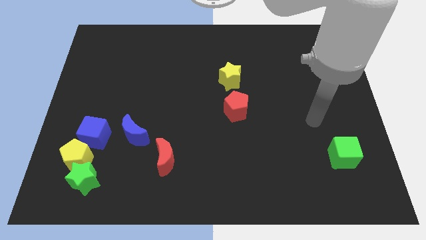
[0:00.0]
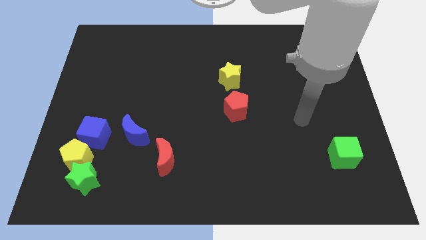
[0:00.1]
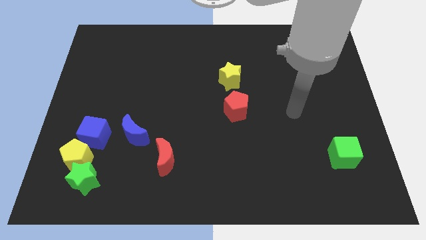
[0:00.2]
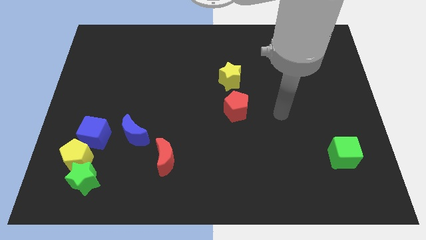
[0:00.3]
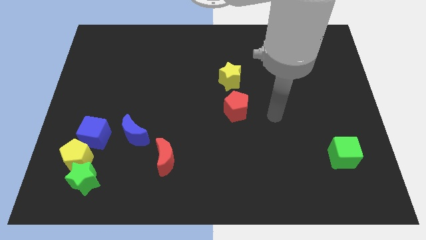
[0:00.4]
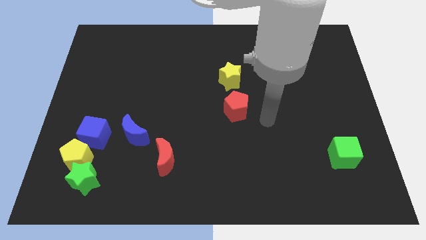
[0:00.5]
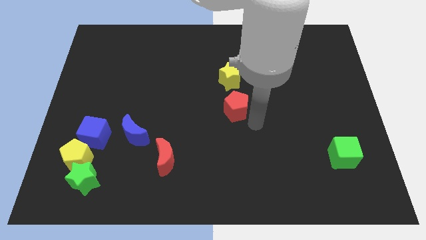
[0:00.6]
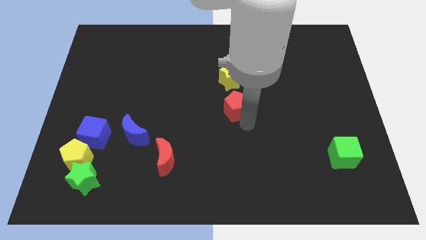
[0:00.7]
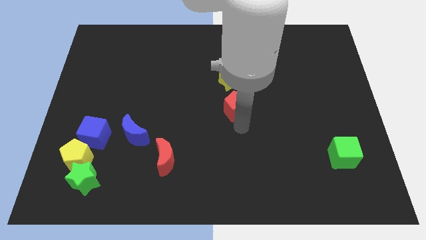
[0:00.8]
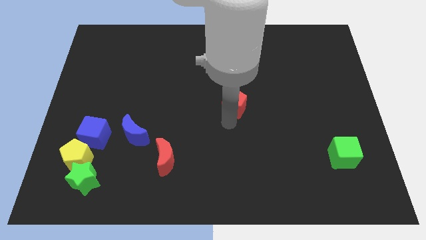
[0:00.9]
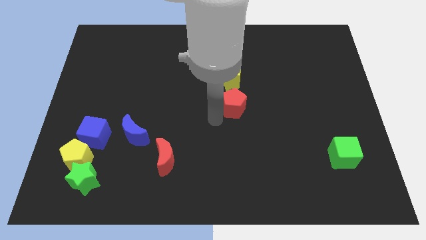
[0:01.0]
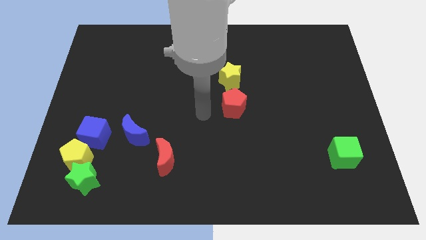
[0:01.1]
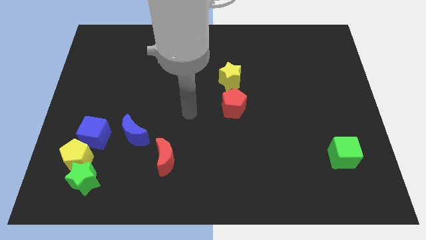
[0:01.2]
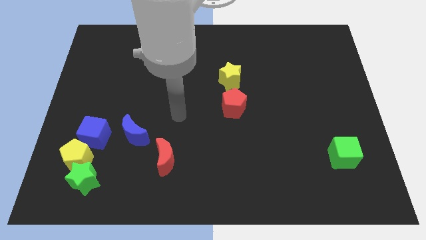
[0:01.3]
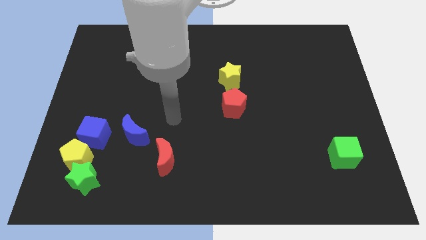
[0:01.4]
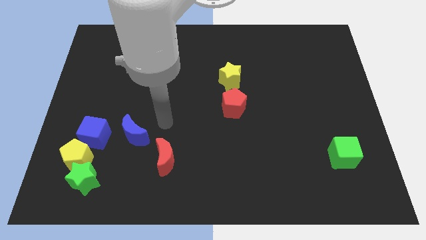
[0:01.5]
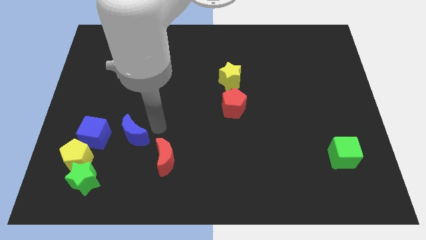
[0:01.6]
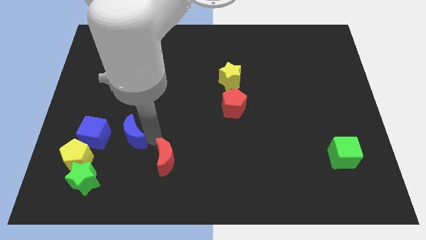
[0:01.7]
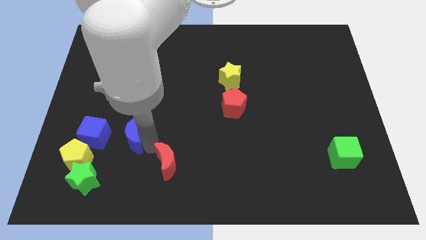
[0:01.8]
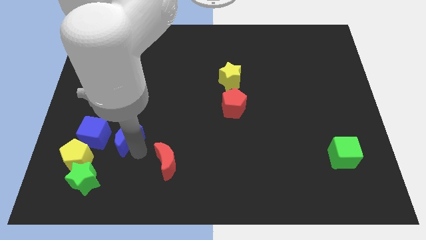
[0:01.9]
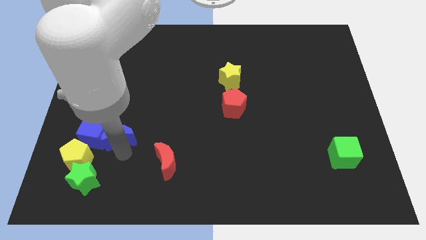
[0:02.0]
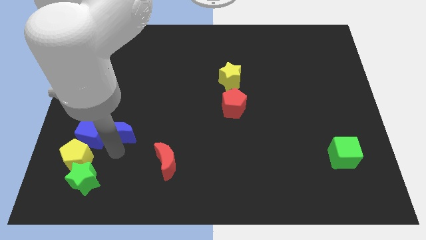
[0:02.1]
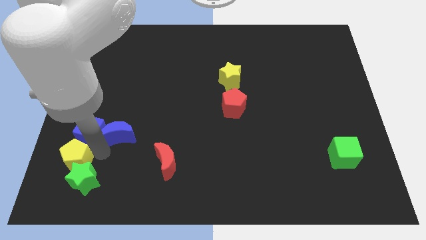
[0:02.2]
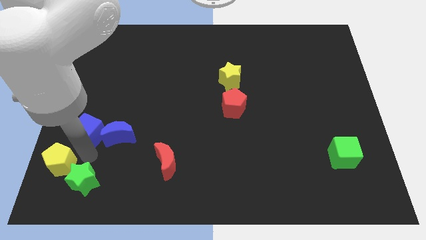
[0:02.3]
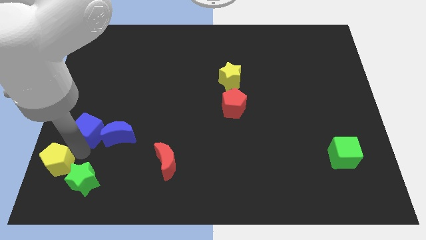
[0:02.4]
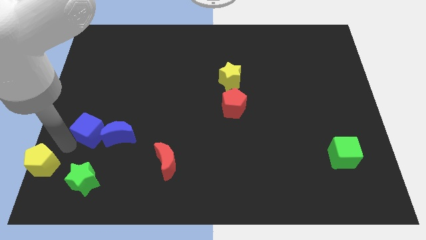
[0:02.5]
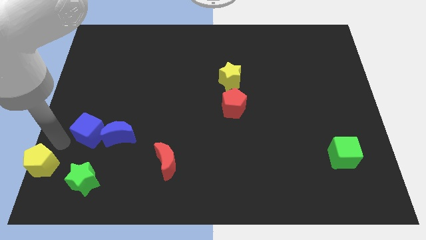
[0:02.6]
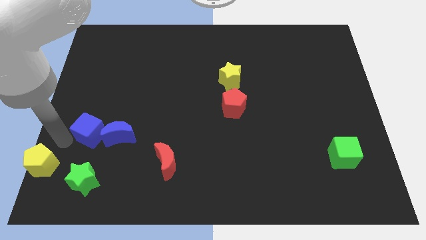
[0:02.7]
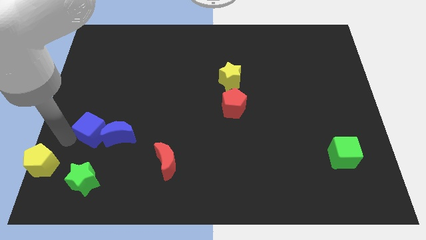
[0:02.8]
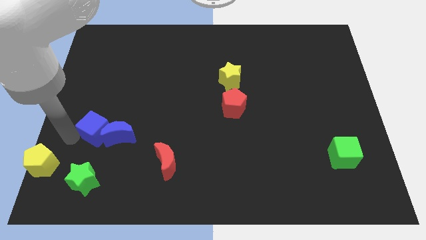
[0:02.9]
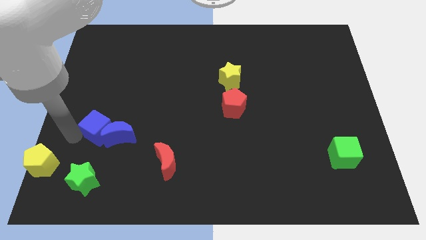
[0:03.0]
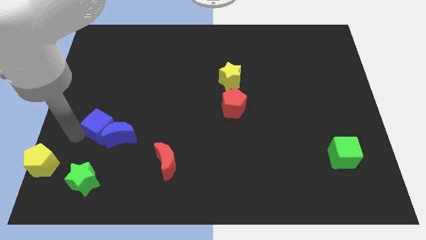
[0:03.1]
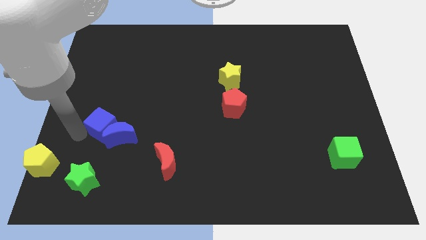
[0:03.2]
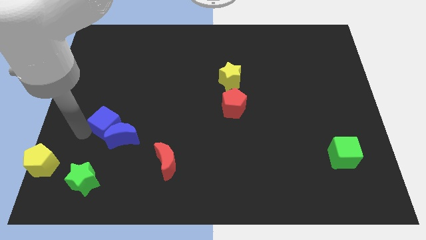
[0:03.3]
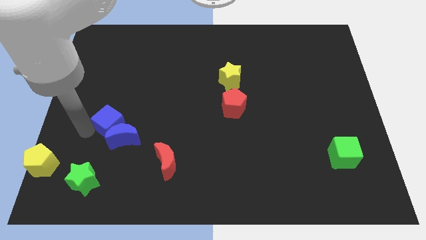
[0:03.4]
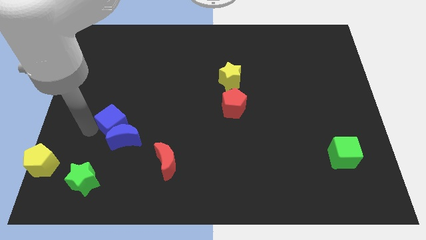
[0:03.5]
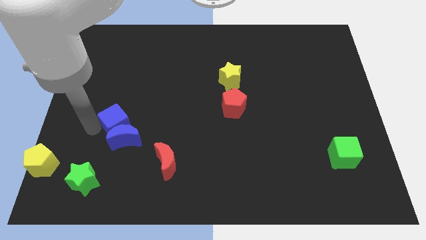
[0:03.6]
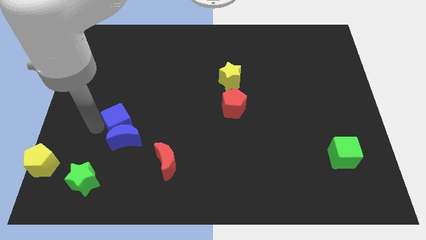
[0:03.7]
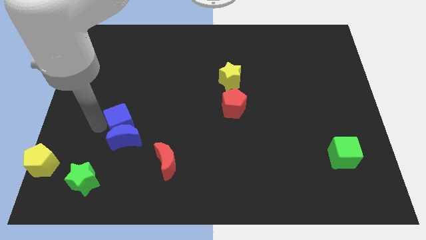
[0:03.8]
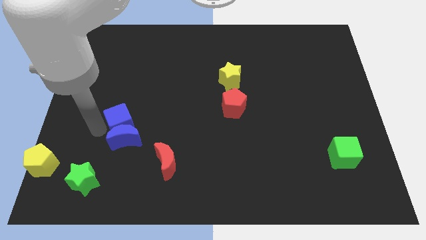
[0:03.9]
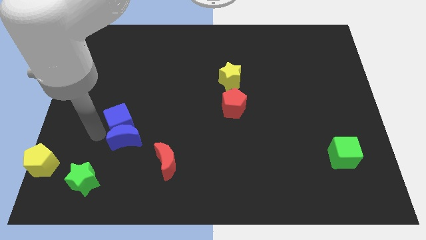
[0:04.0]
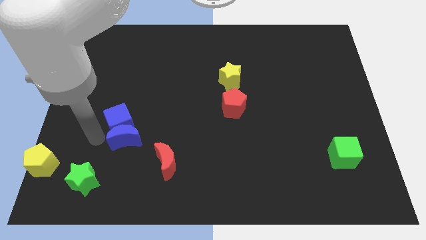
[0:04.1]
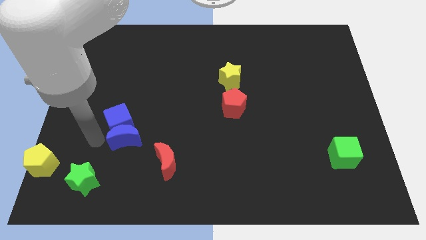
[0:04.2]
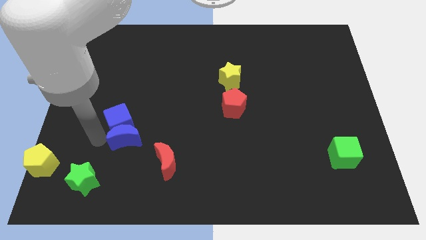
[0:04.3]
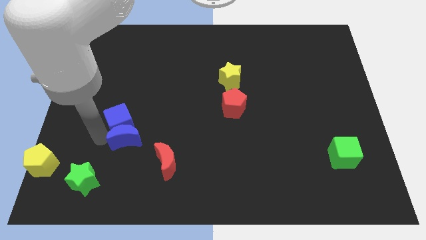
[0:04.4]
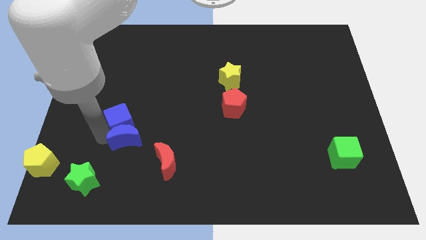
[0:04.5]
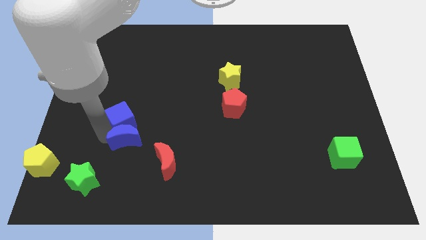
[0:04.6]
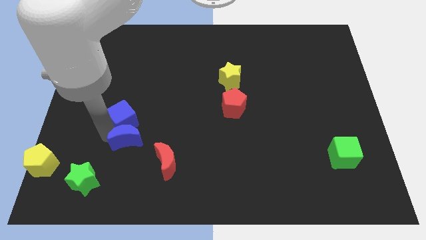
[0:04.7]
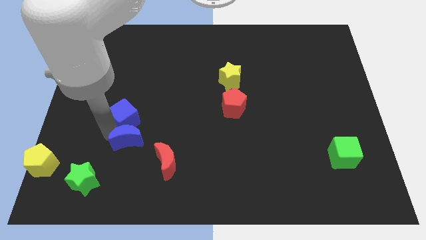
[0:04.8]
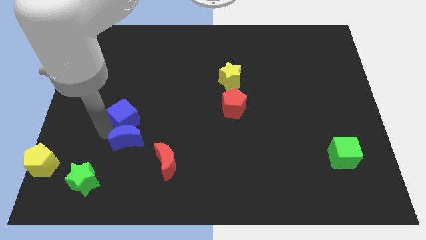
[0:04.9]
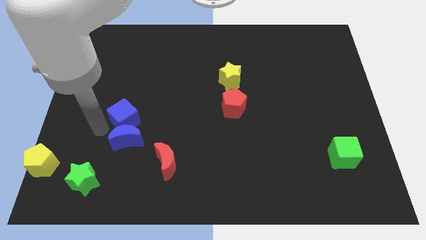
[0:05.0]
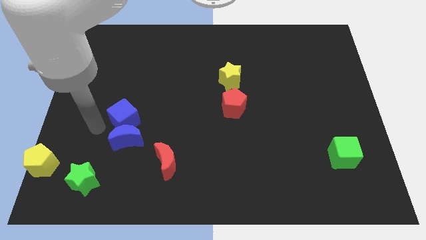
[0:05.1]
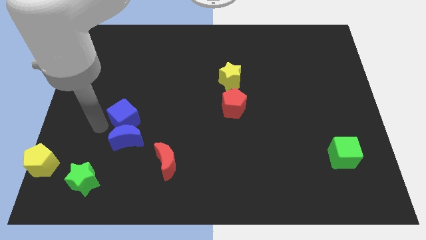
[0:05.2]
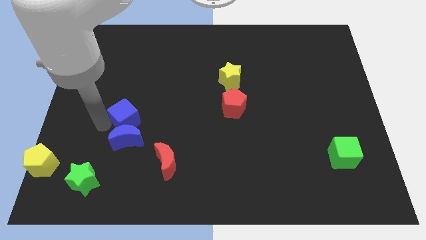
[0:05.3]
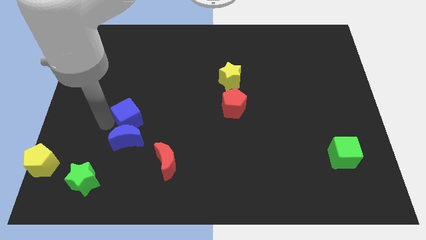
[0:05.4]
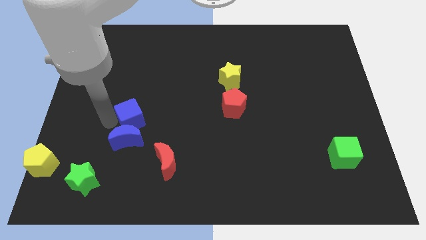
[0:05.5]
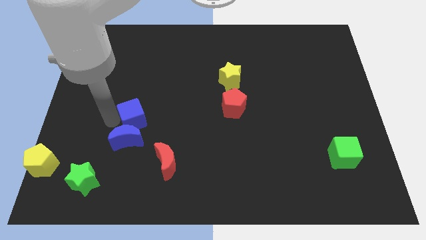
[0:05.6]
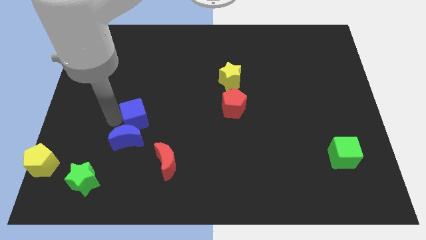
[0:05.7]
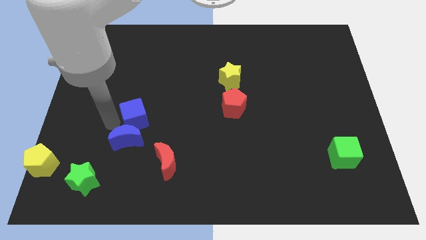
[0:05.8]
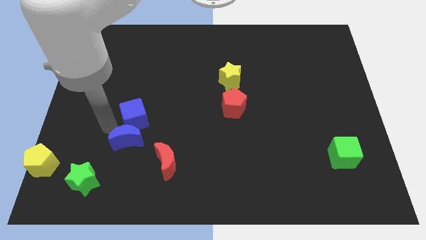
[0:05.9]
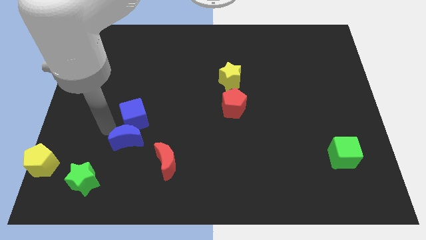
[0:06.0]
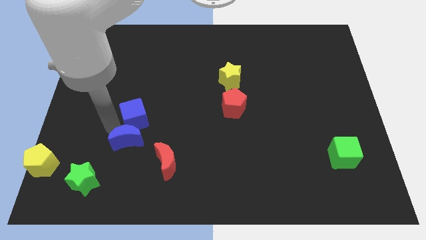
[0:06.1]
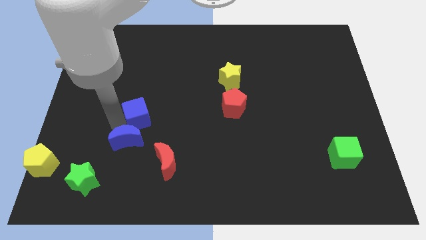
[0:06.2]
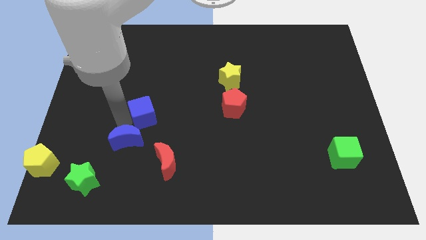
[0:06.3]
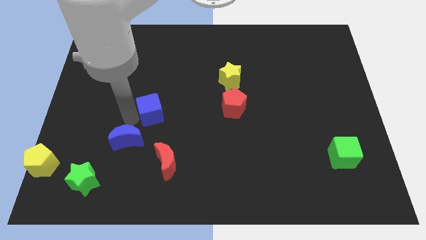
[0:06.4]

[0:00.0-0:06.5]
put the blue cube above the red moon

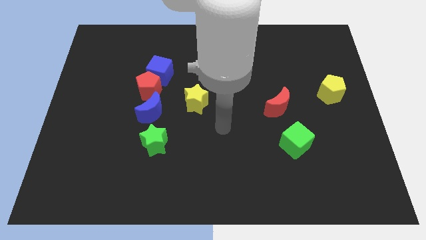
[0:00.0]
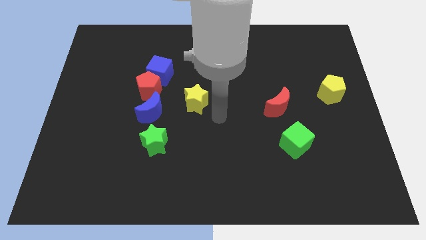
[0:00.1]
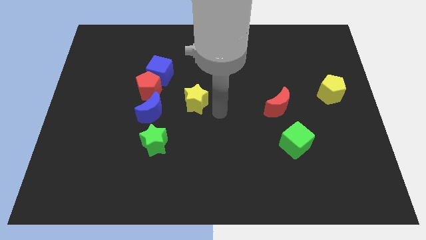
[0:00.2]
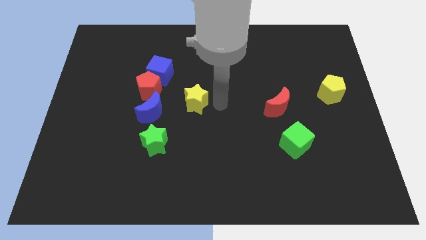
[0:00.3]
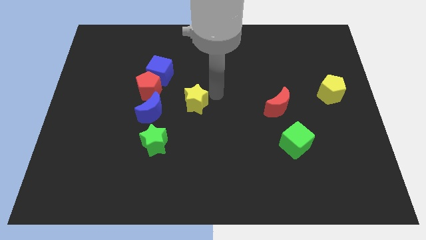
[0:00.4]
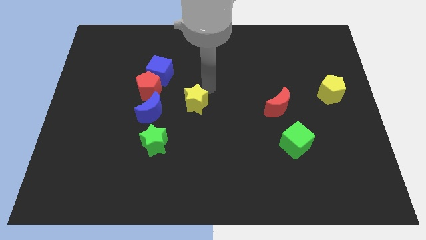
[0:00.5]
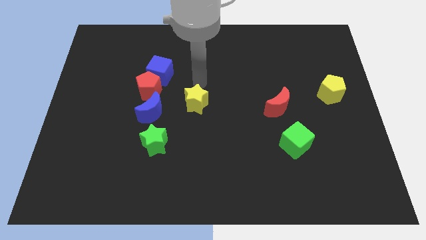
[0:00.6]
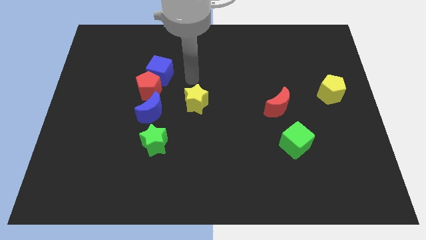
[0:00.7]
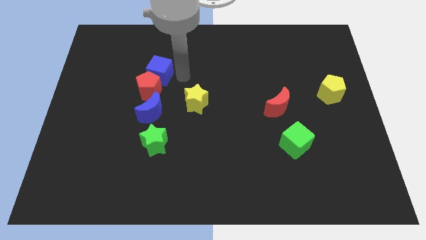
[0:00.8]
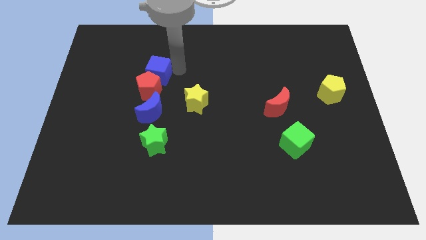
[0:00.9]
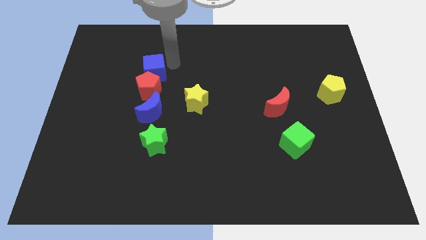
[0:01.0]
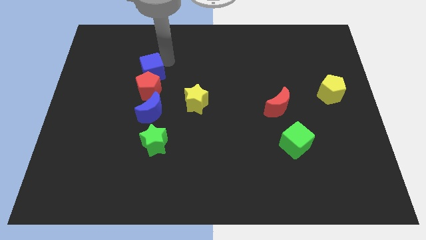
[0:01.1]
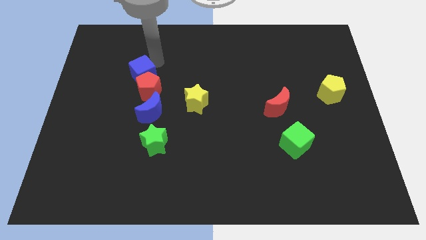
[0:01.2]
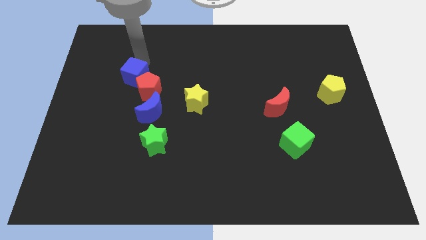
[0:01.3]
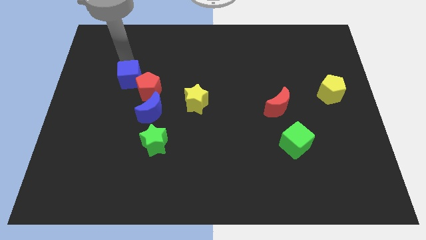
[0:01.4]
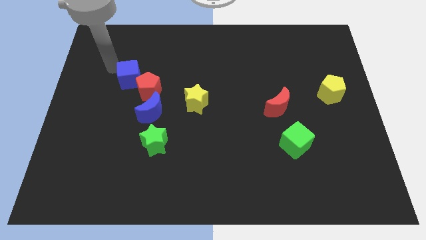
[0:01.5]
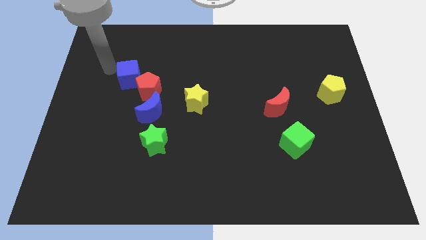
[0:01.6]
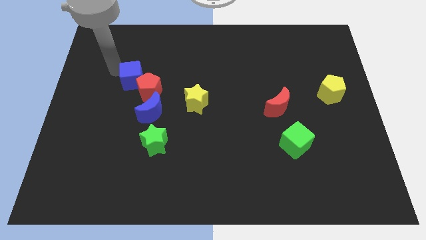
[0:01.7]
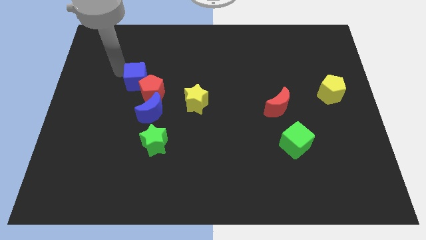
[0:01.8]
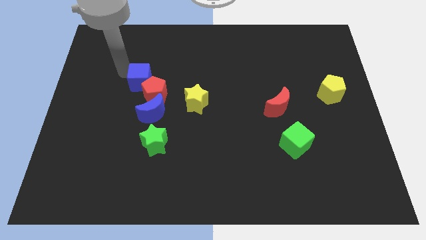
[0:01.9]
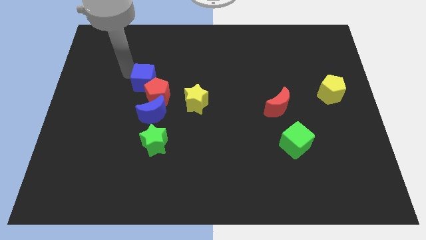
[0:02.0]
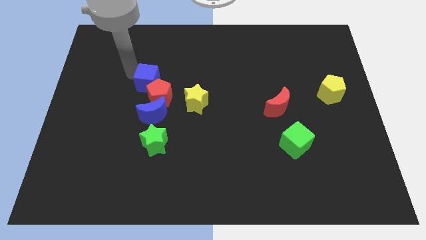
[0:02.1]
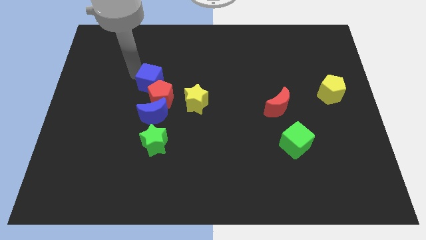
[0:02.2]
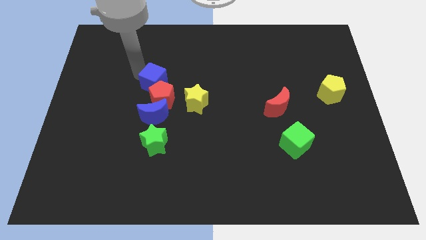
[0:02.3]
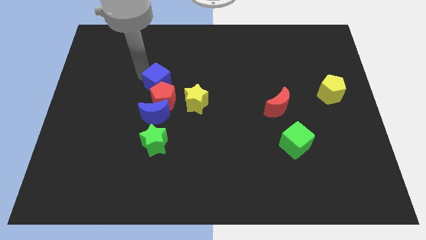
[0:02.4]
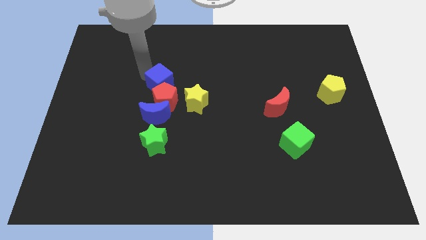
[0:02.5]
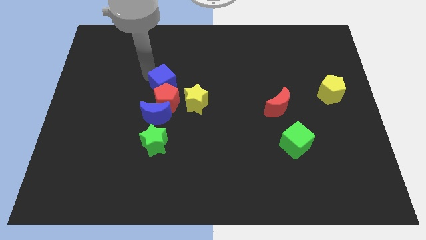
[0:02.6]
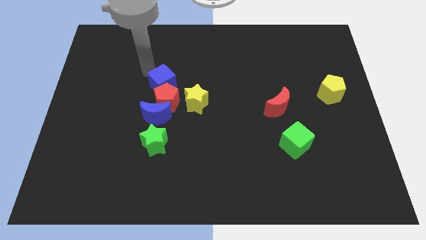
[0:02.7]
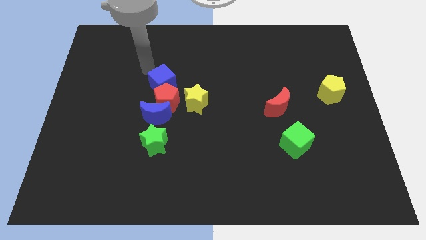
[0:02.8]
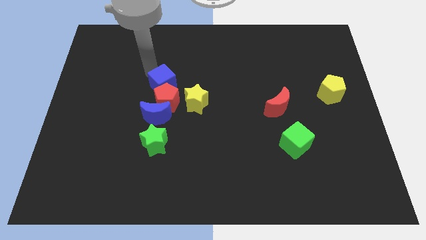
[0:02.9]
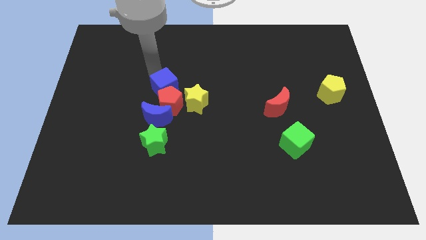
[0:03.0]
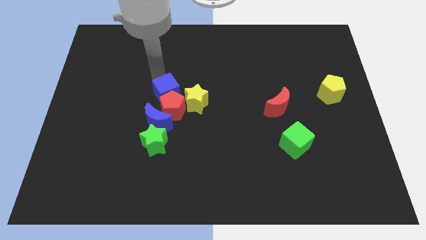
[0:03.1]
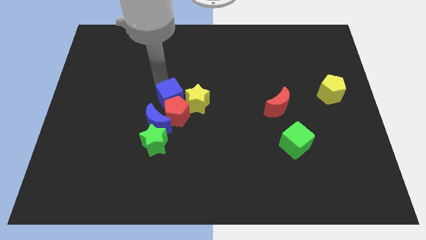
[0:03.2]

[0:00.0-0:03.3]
put the blue cube to the top right side of the blue moon
